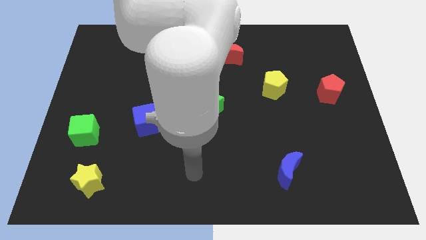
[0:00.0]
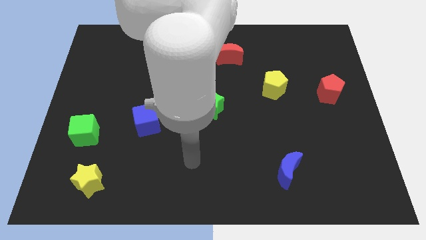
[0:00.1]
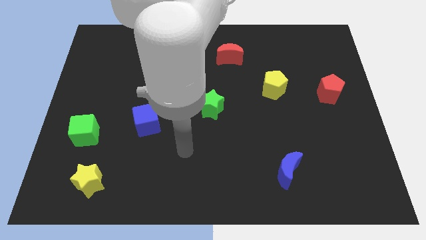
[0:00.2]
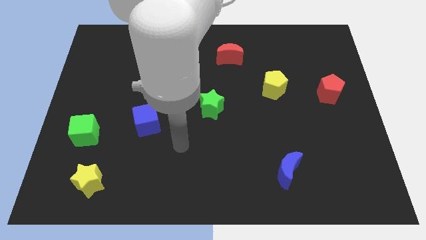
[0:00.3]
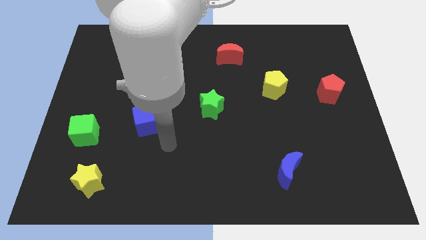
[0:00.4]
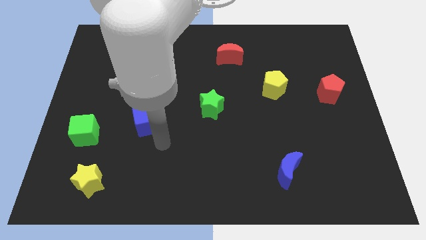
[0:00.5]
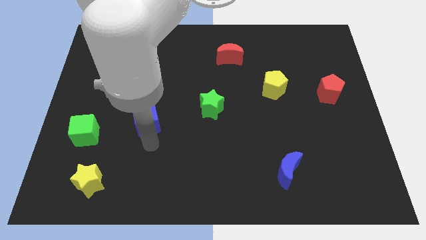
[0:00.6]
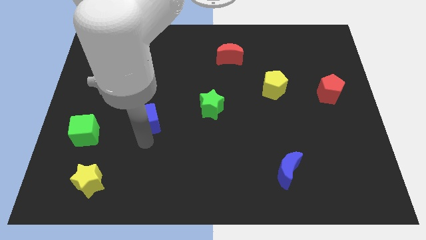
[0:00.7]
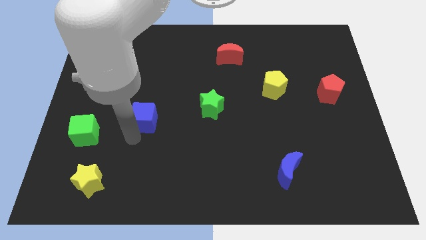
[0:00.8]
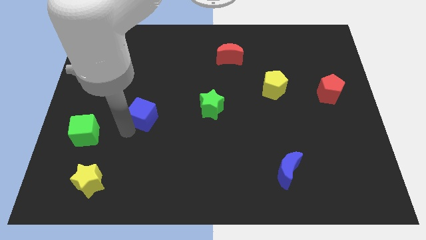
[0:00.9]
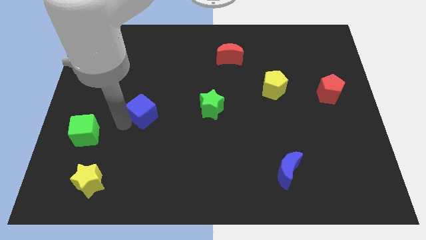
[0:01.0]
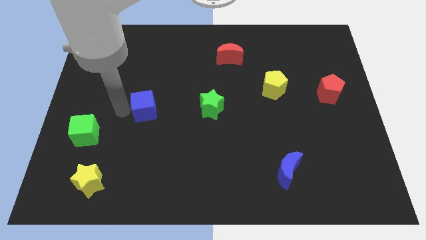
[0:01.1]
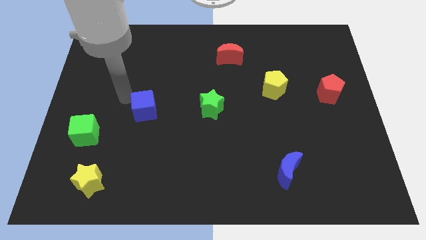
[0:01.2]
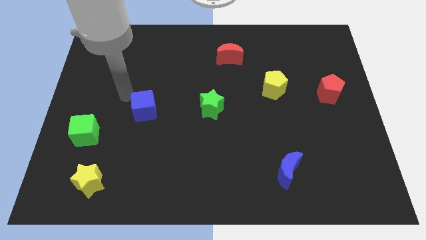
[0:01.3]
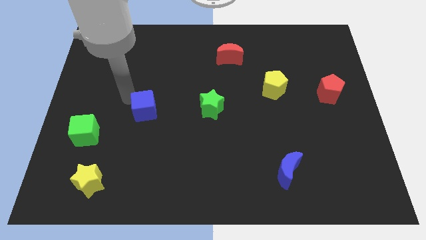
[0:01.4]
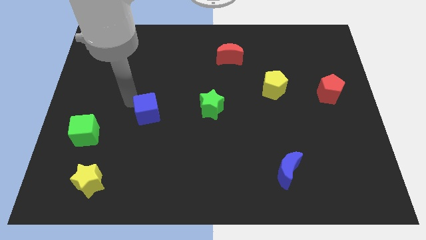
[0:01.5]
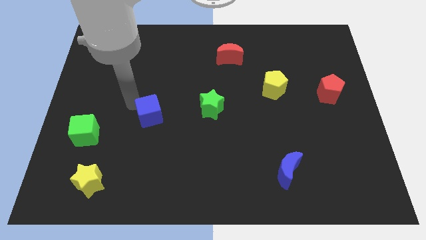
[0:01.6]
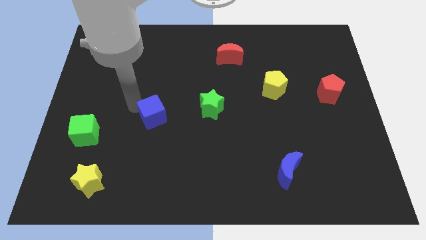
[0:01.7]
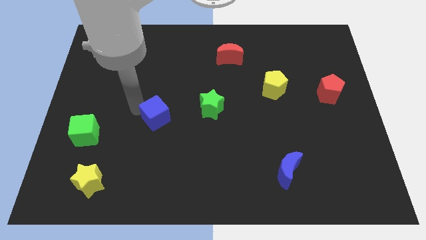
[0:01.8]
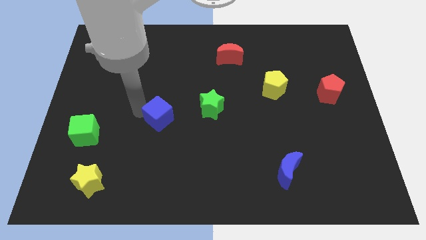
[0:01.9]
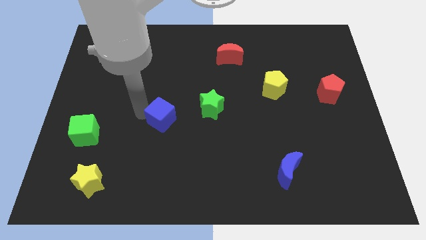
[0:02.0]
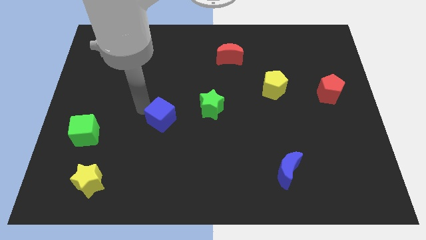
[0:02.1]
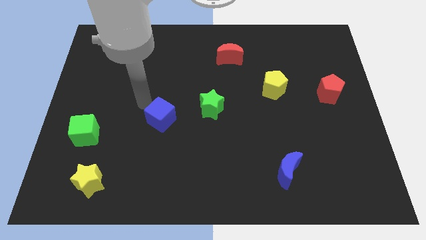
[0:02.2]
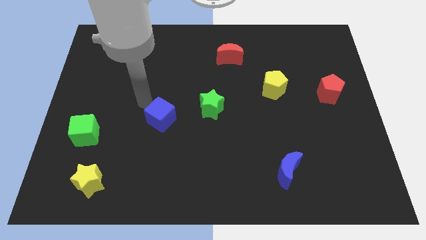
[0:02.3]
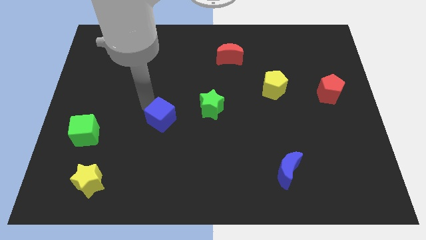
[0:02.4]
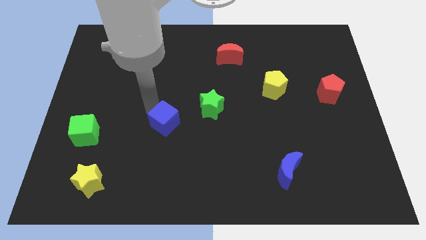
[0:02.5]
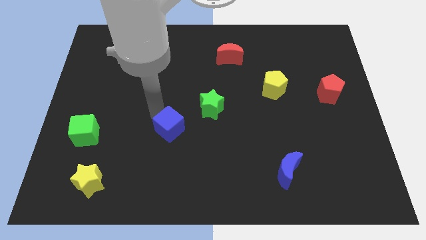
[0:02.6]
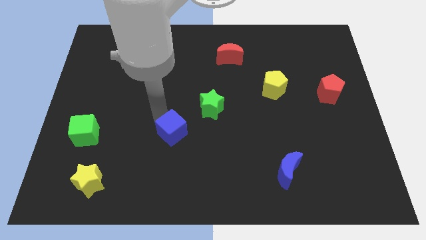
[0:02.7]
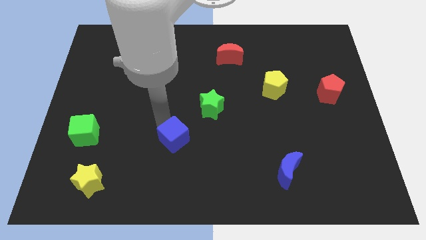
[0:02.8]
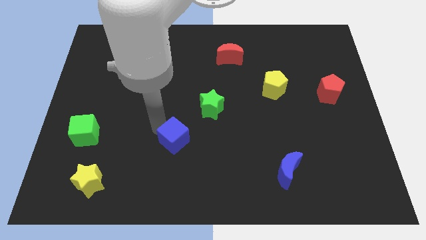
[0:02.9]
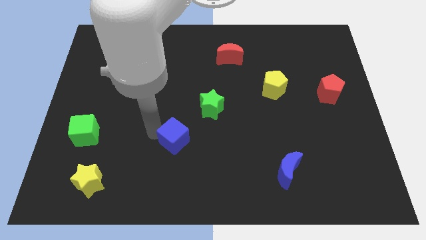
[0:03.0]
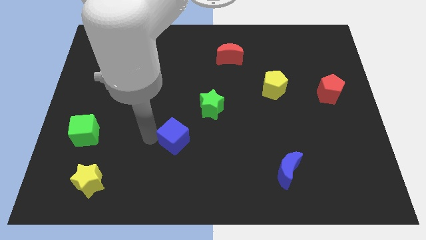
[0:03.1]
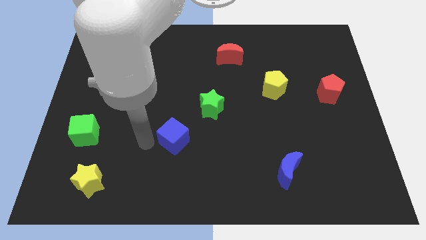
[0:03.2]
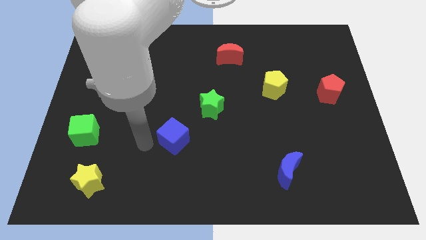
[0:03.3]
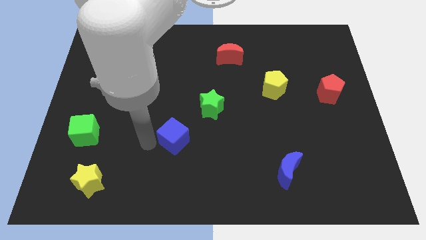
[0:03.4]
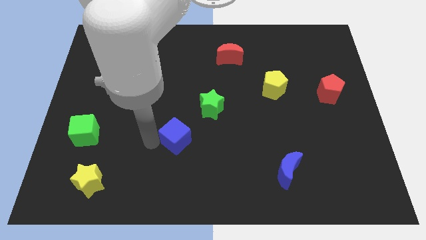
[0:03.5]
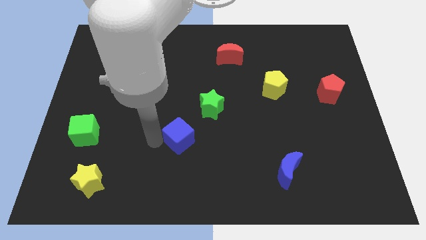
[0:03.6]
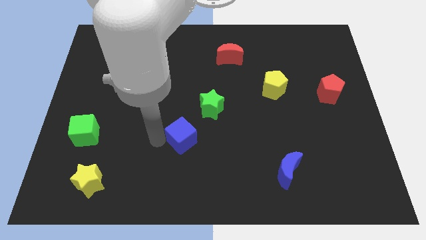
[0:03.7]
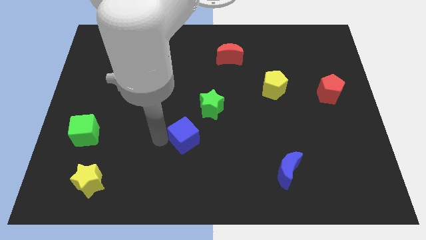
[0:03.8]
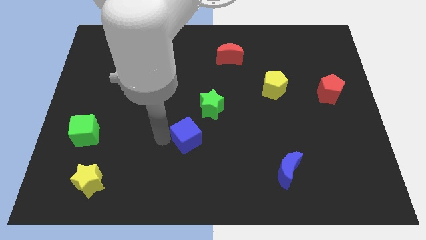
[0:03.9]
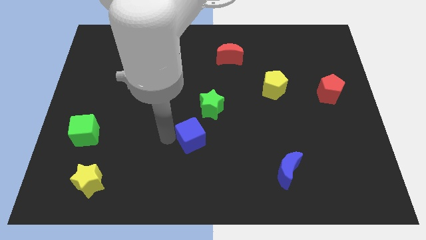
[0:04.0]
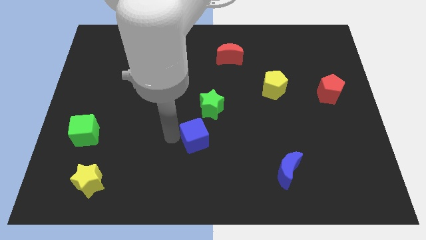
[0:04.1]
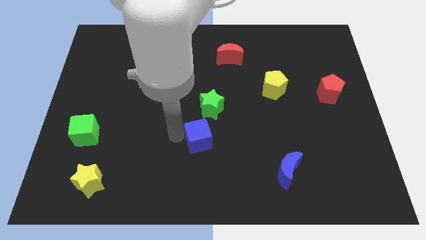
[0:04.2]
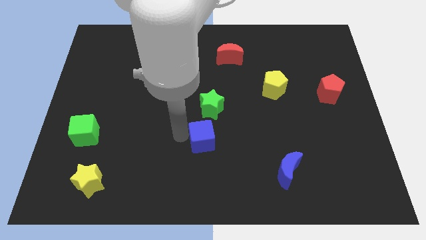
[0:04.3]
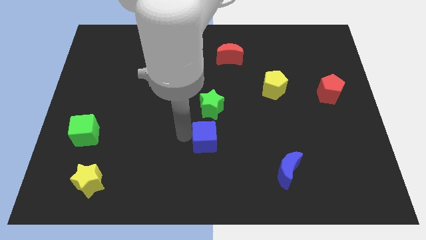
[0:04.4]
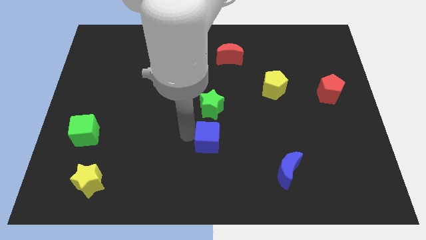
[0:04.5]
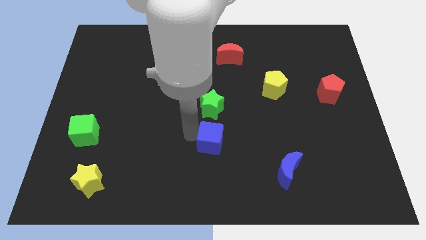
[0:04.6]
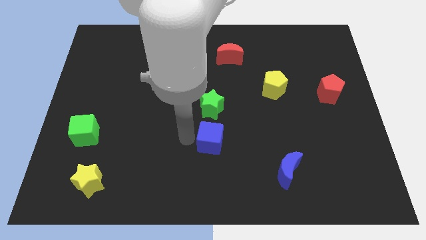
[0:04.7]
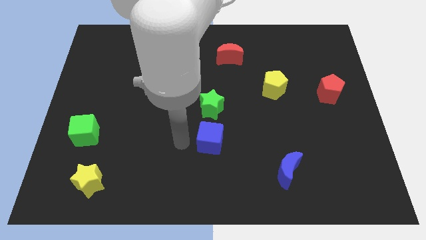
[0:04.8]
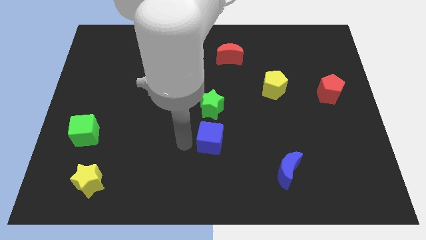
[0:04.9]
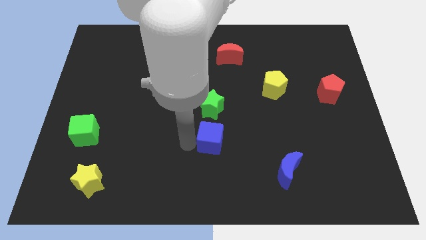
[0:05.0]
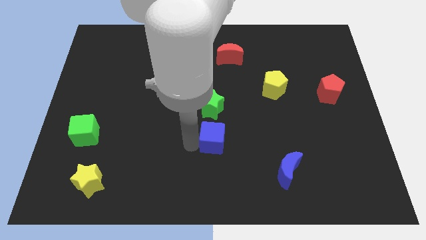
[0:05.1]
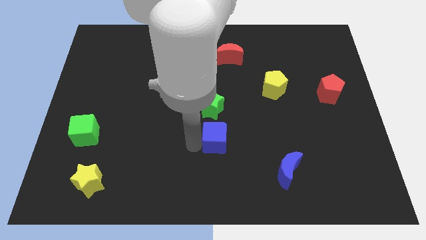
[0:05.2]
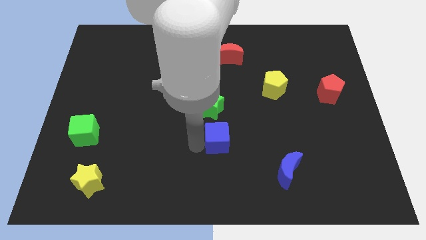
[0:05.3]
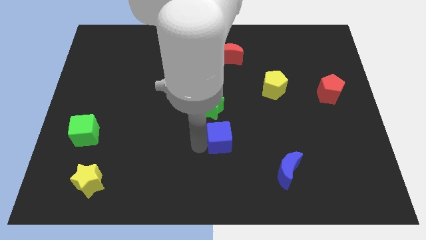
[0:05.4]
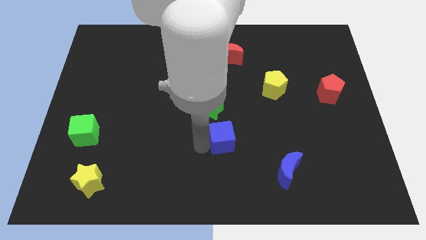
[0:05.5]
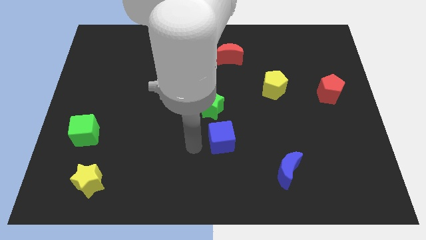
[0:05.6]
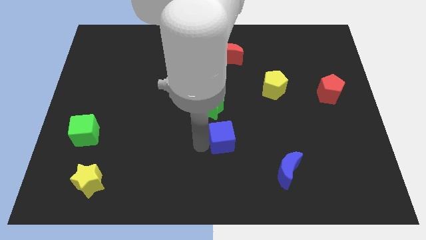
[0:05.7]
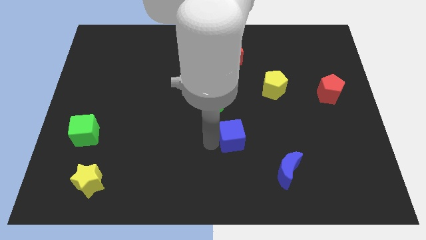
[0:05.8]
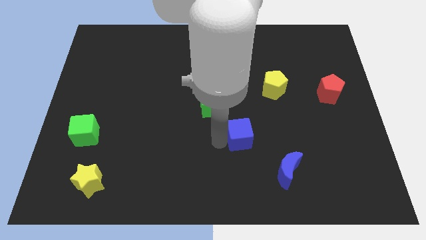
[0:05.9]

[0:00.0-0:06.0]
move the blue cube right

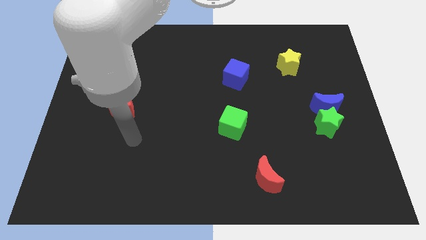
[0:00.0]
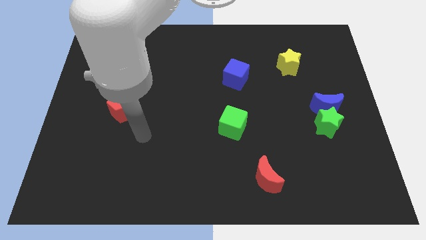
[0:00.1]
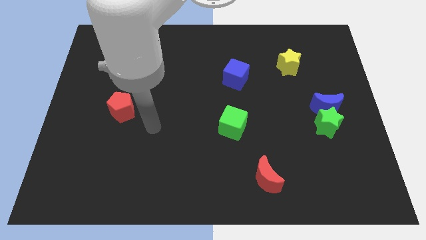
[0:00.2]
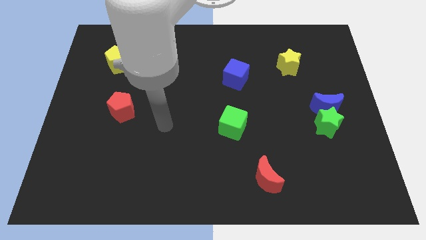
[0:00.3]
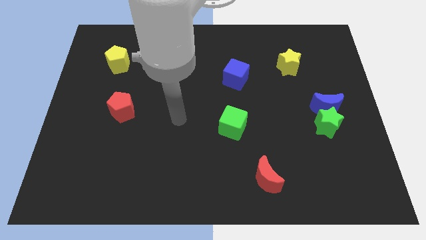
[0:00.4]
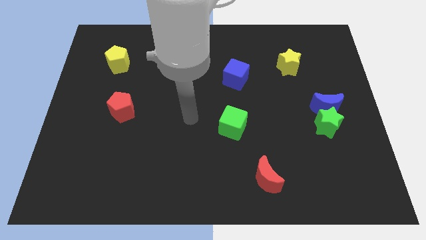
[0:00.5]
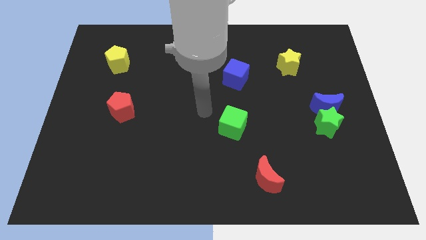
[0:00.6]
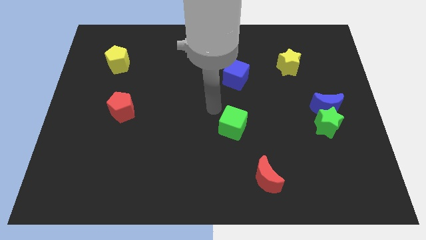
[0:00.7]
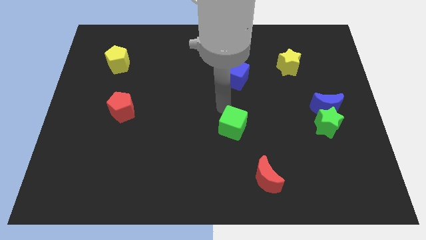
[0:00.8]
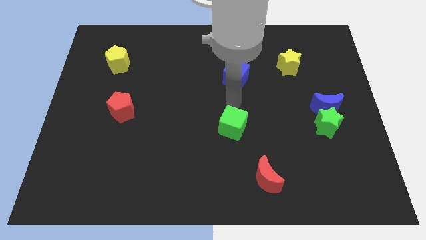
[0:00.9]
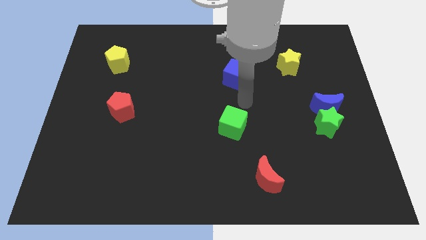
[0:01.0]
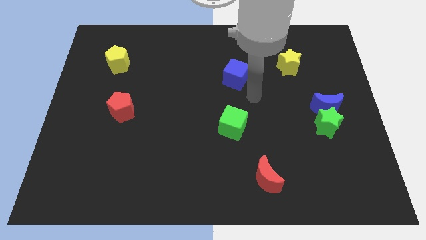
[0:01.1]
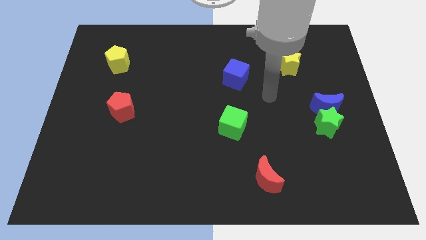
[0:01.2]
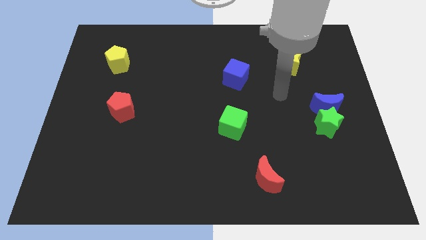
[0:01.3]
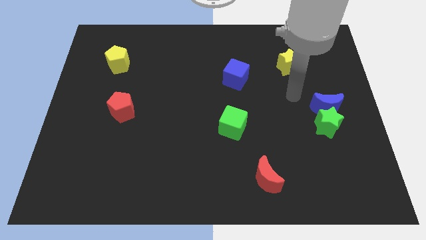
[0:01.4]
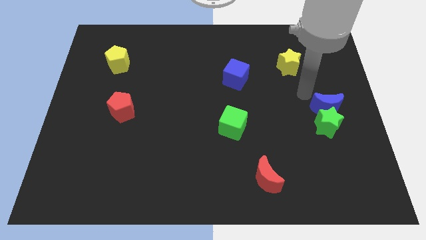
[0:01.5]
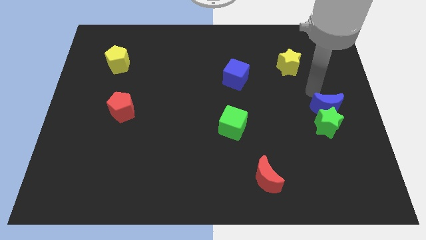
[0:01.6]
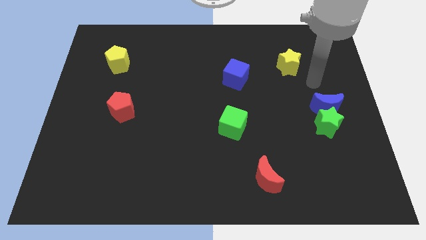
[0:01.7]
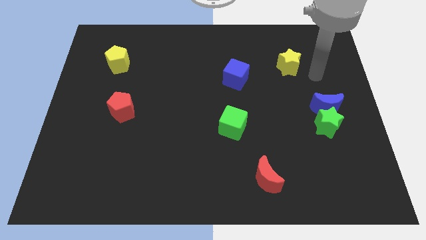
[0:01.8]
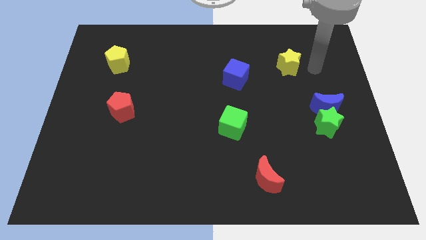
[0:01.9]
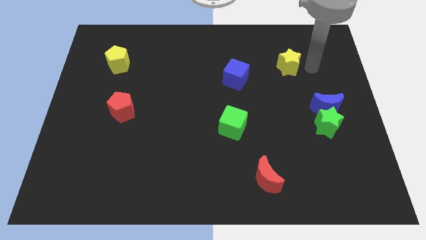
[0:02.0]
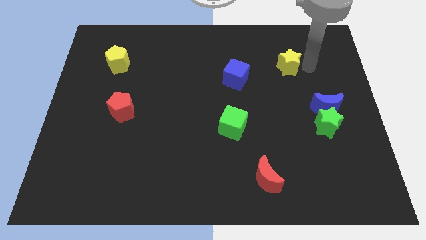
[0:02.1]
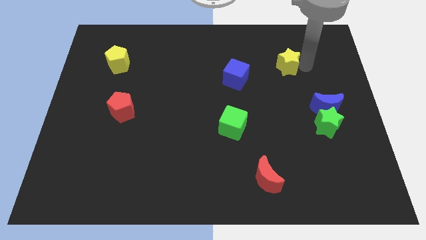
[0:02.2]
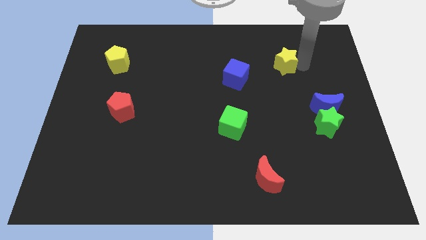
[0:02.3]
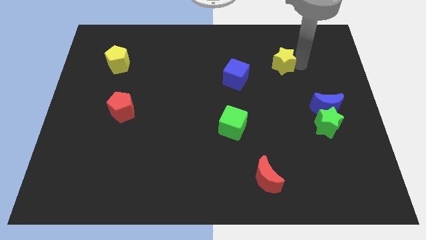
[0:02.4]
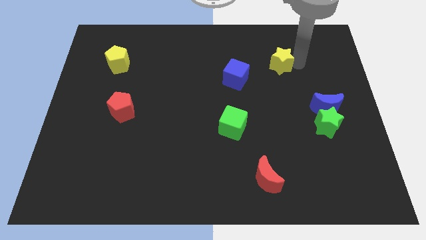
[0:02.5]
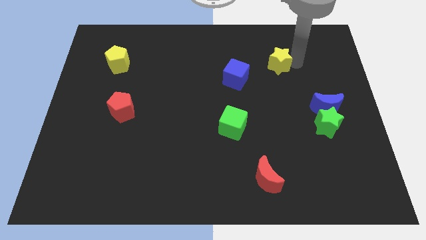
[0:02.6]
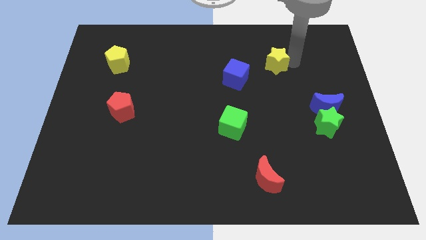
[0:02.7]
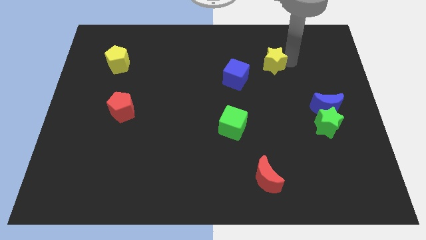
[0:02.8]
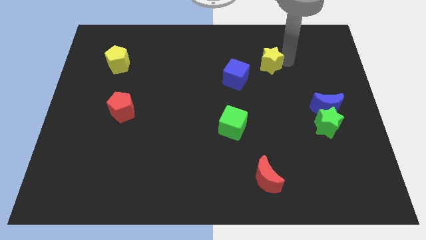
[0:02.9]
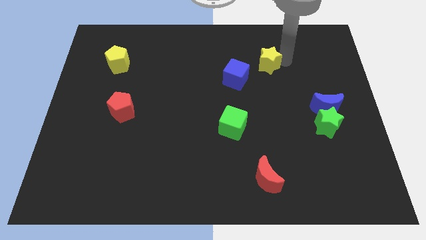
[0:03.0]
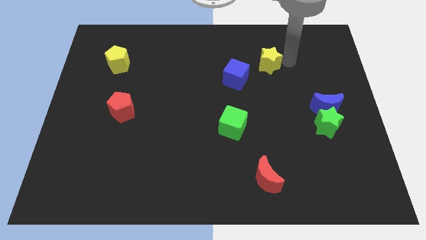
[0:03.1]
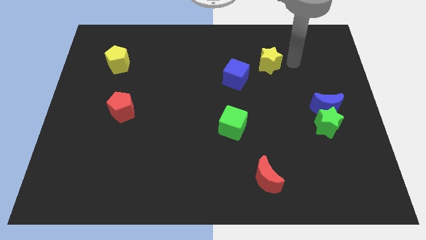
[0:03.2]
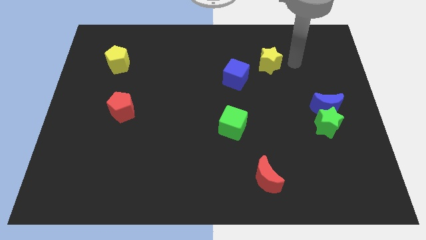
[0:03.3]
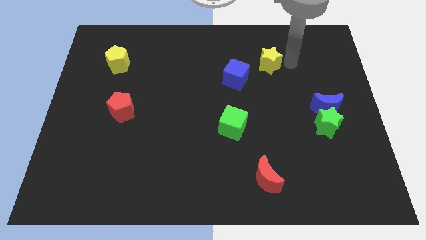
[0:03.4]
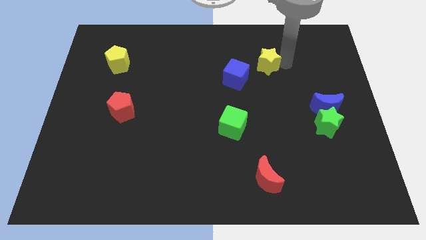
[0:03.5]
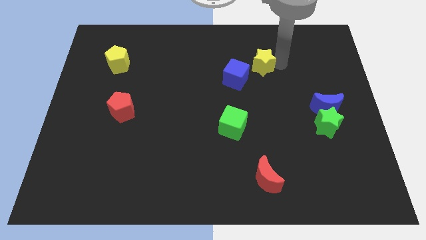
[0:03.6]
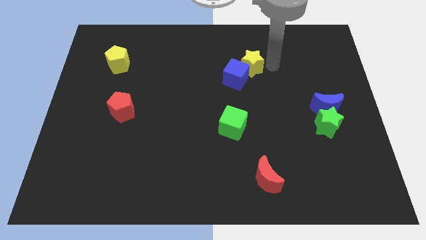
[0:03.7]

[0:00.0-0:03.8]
move the yellow star to the left somewhat
